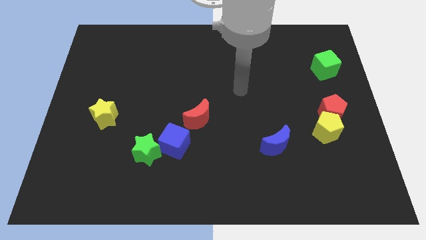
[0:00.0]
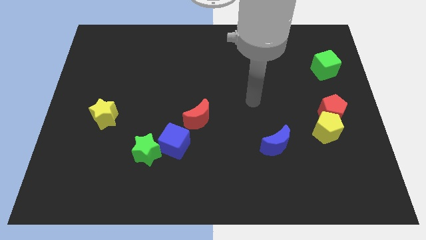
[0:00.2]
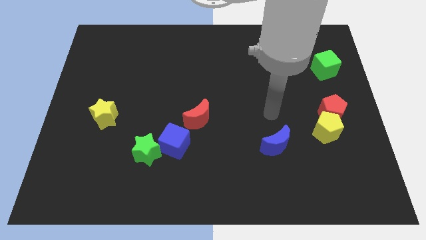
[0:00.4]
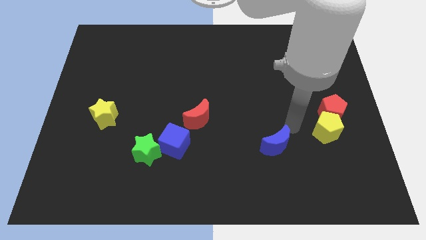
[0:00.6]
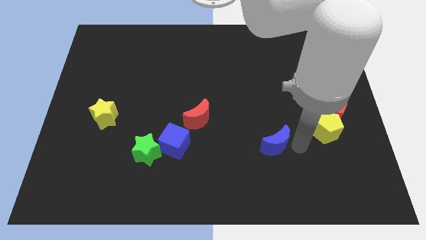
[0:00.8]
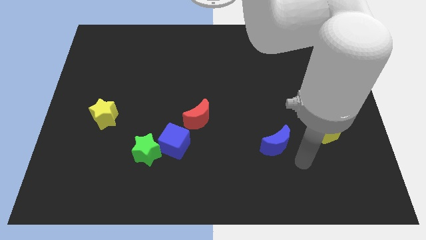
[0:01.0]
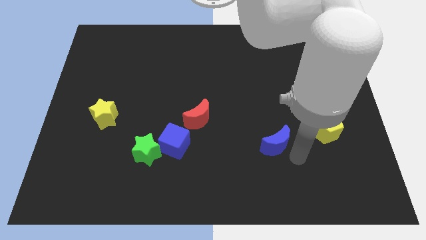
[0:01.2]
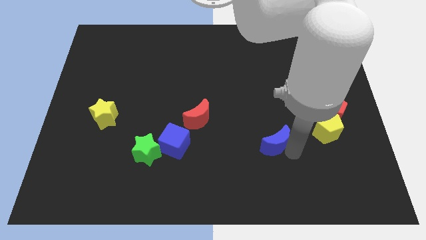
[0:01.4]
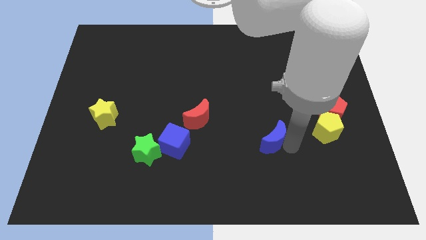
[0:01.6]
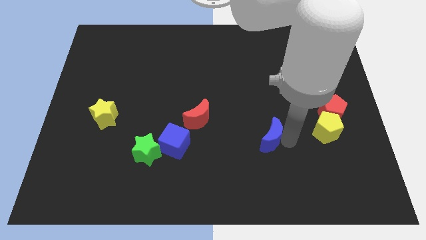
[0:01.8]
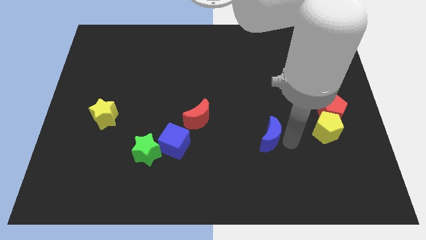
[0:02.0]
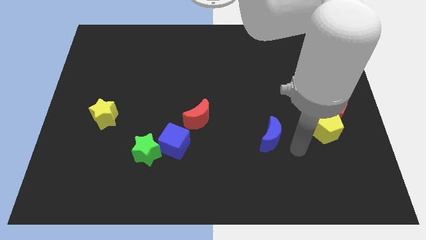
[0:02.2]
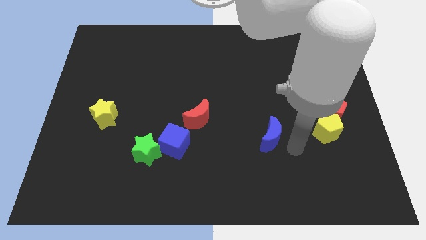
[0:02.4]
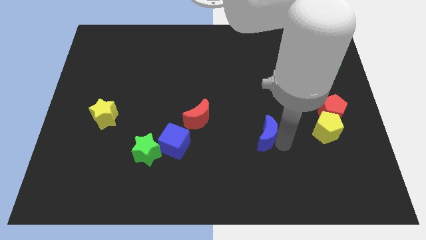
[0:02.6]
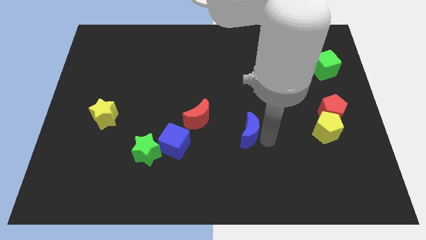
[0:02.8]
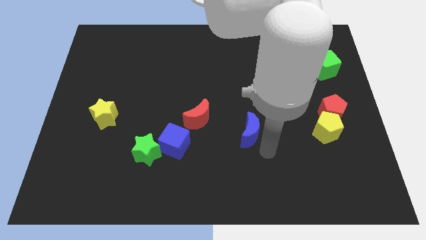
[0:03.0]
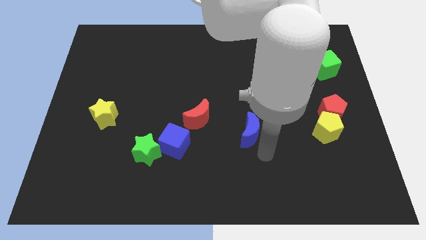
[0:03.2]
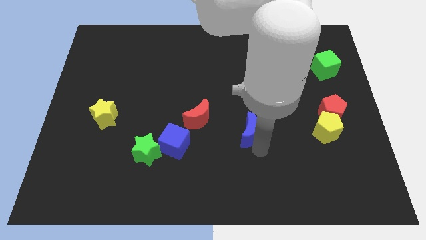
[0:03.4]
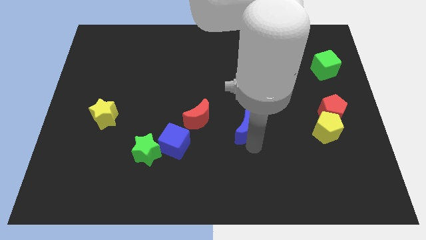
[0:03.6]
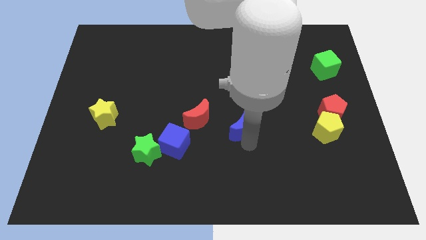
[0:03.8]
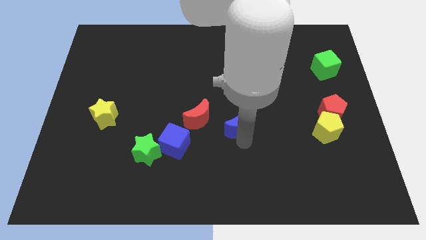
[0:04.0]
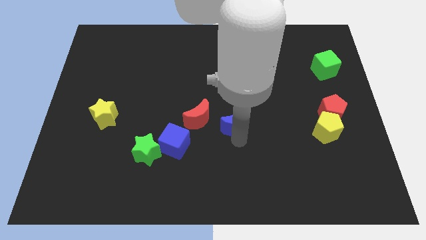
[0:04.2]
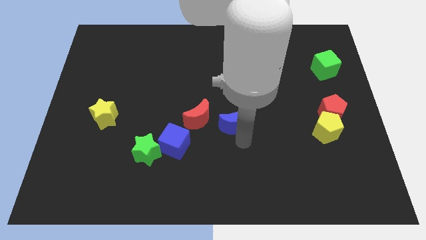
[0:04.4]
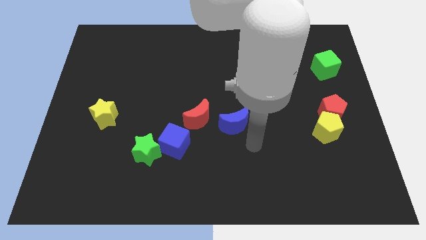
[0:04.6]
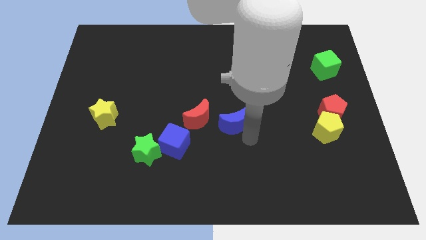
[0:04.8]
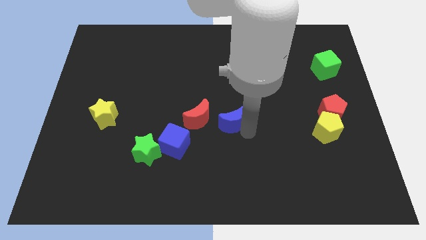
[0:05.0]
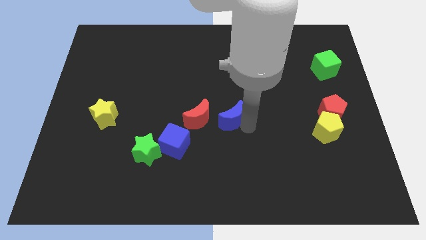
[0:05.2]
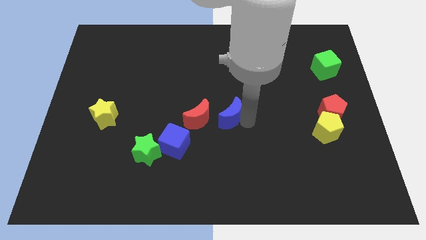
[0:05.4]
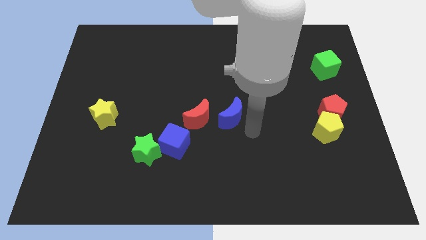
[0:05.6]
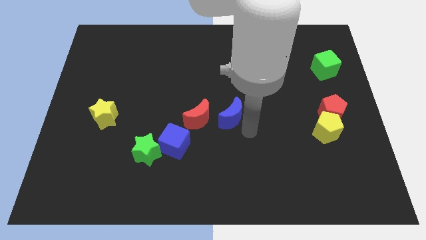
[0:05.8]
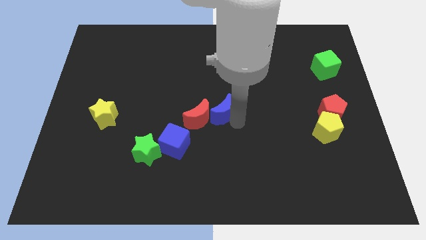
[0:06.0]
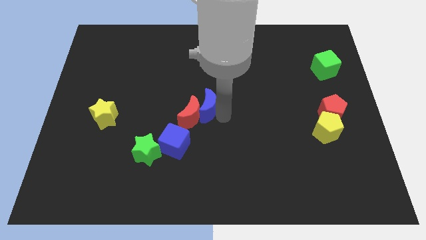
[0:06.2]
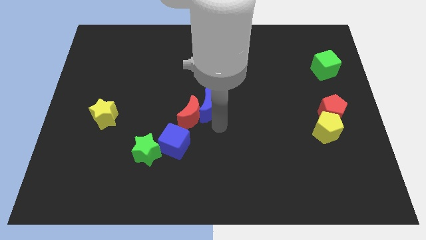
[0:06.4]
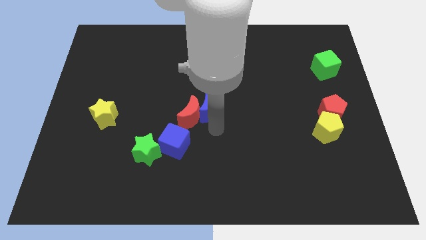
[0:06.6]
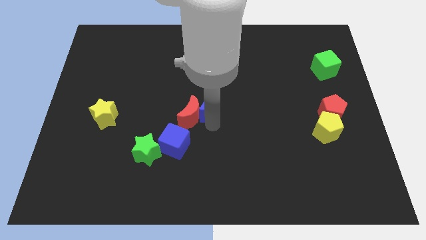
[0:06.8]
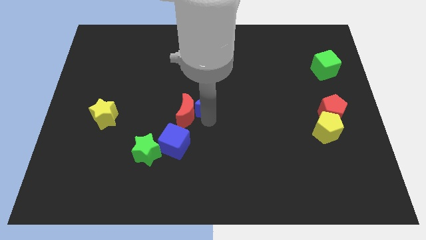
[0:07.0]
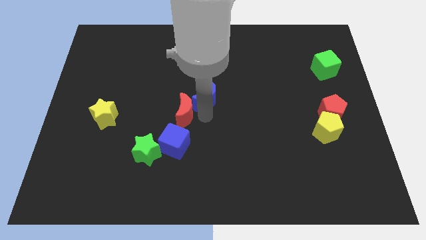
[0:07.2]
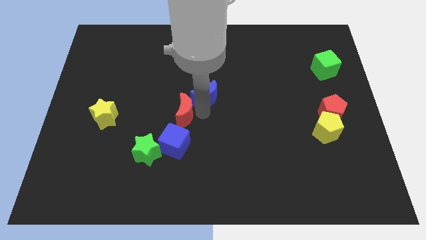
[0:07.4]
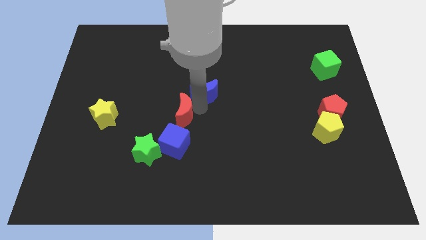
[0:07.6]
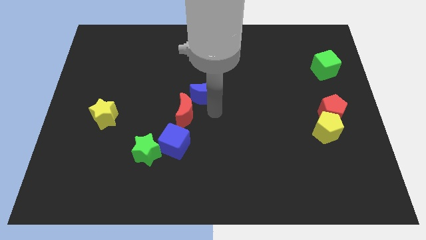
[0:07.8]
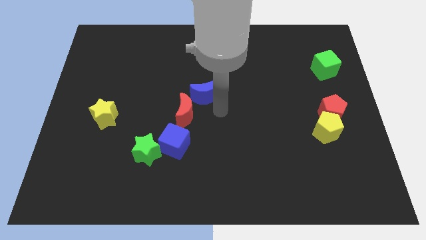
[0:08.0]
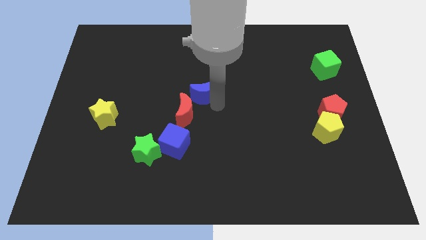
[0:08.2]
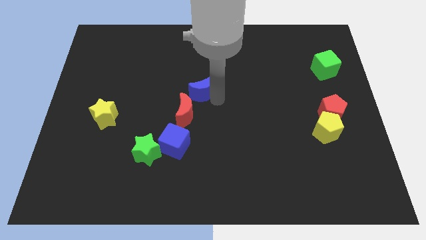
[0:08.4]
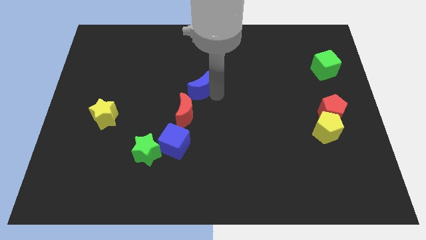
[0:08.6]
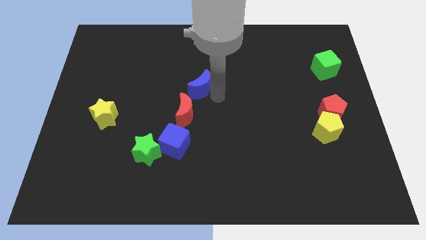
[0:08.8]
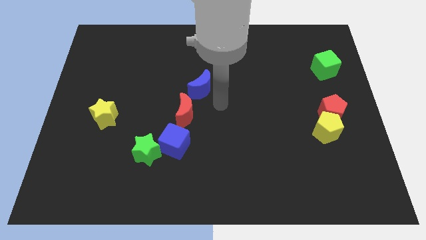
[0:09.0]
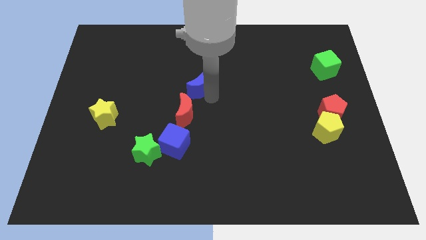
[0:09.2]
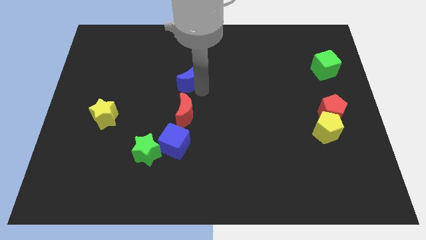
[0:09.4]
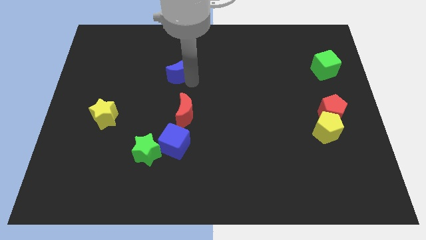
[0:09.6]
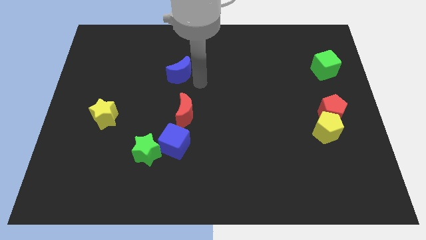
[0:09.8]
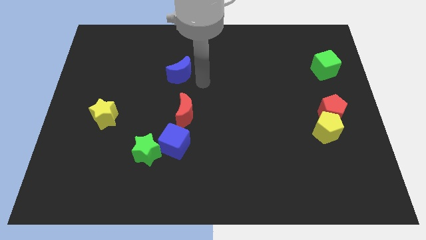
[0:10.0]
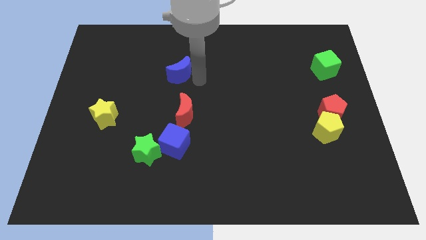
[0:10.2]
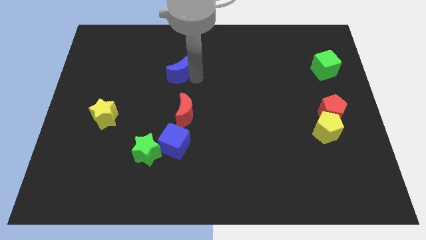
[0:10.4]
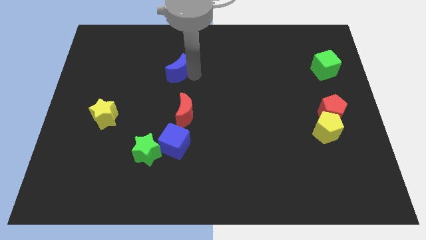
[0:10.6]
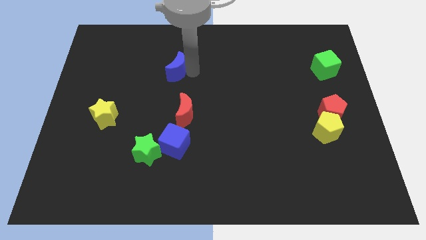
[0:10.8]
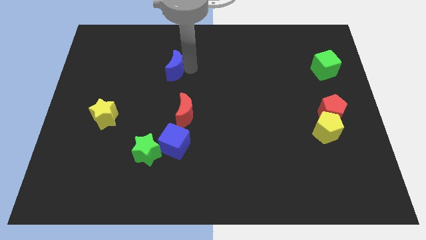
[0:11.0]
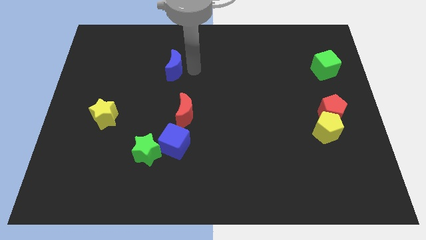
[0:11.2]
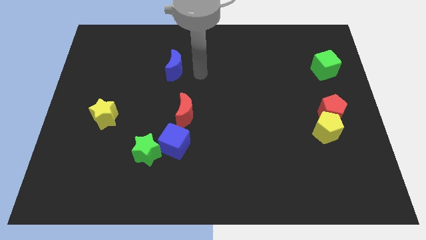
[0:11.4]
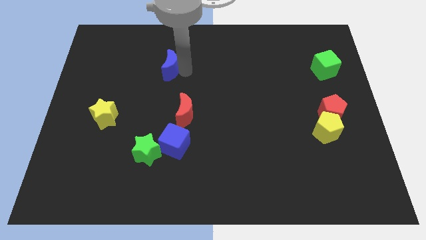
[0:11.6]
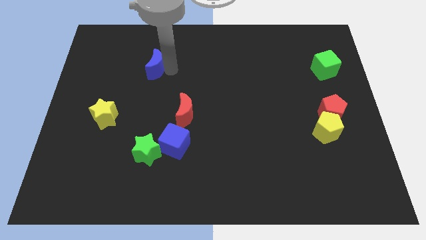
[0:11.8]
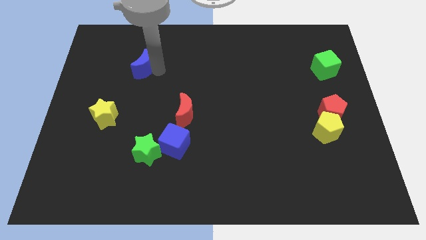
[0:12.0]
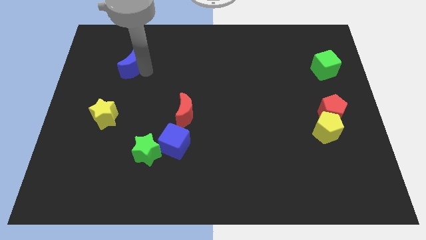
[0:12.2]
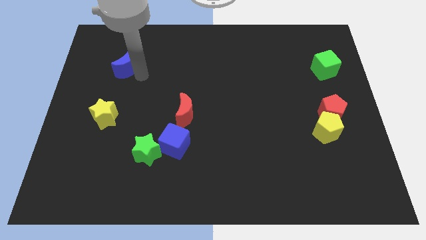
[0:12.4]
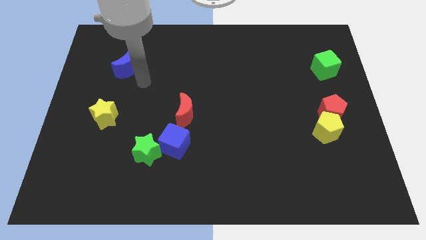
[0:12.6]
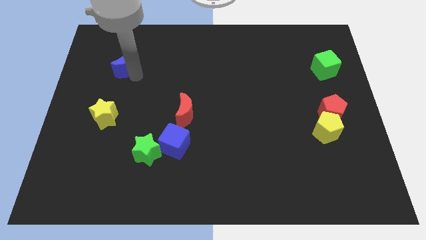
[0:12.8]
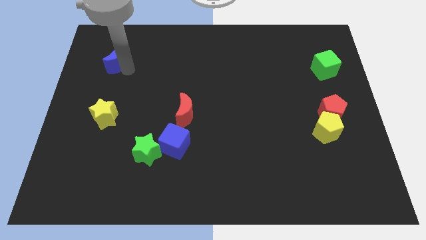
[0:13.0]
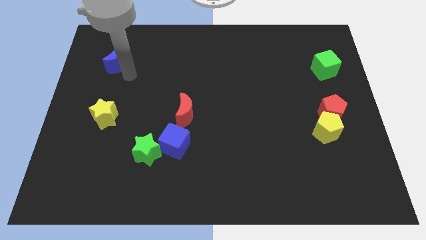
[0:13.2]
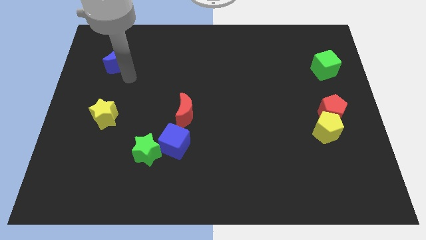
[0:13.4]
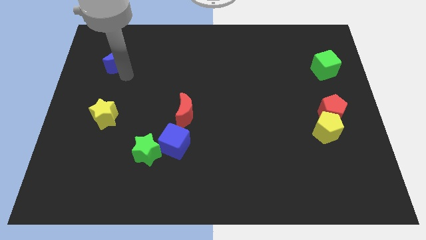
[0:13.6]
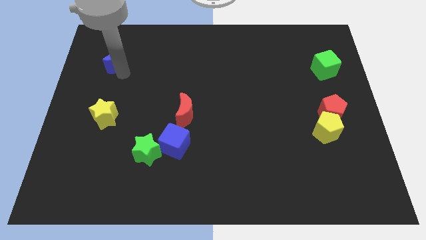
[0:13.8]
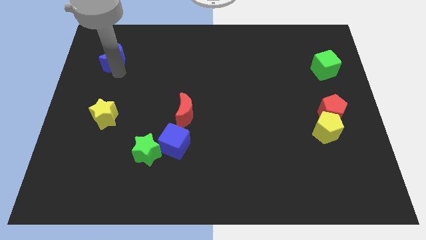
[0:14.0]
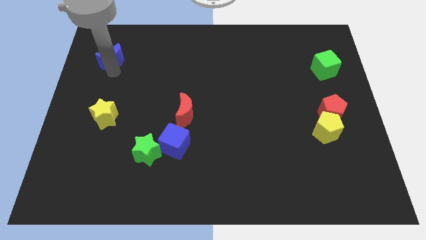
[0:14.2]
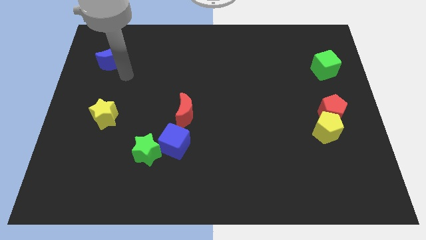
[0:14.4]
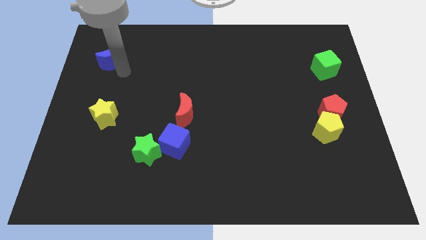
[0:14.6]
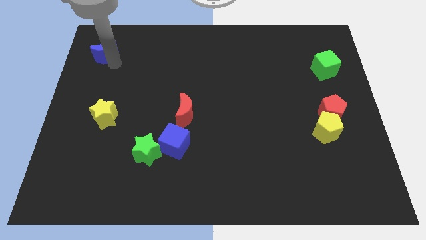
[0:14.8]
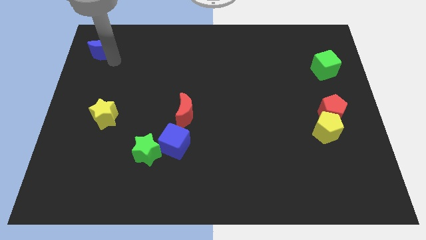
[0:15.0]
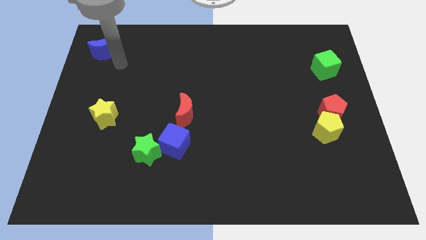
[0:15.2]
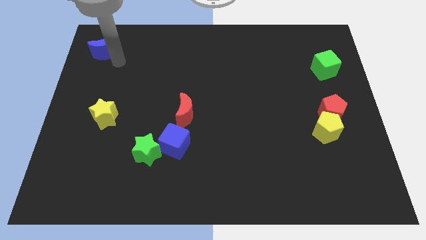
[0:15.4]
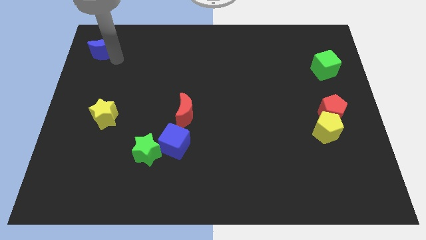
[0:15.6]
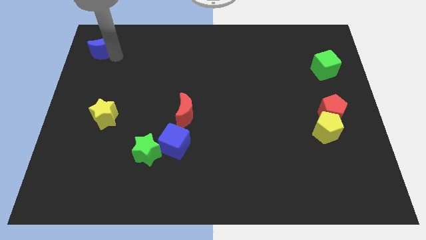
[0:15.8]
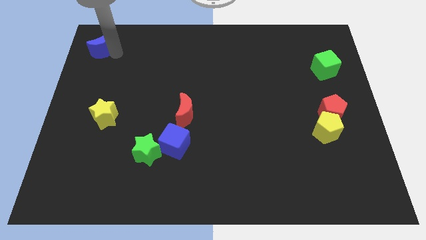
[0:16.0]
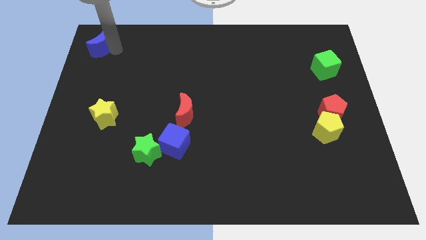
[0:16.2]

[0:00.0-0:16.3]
slide the blue moon to the top left corner
